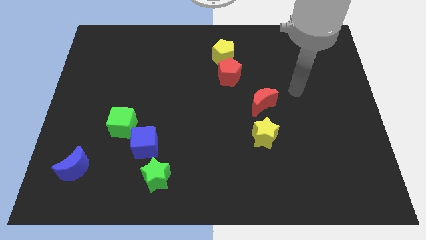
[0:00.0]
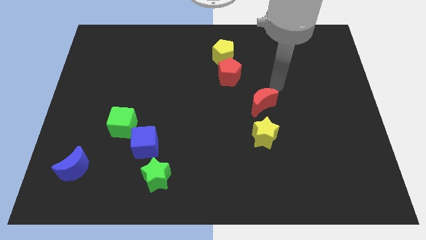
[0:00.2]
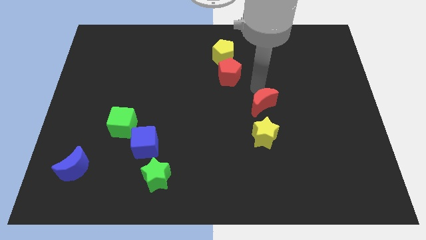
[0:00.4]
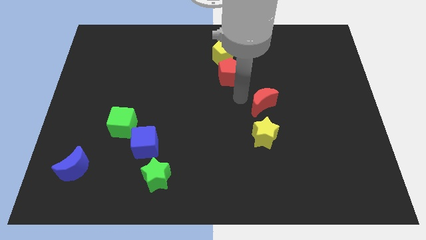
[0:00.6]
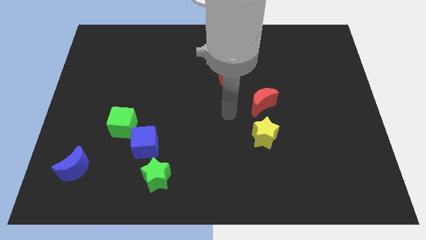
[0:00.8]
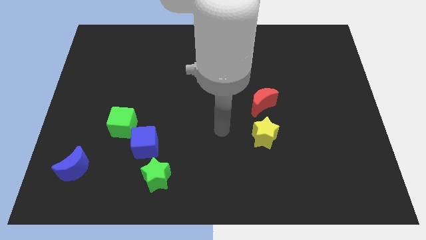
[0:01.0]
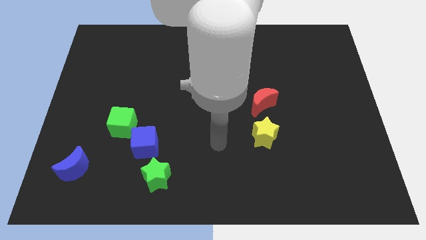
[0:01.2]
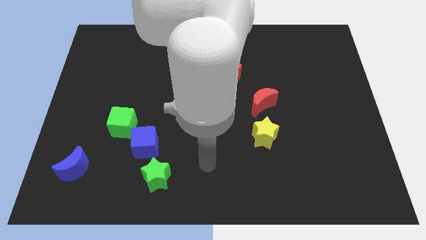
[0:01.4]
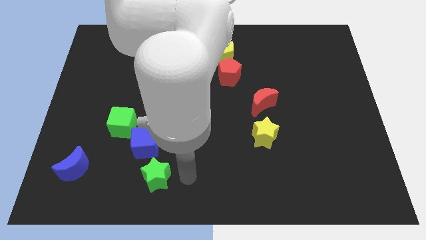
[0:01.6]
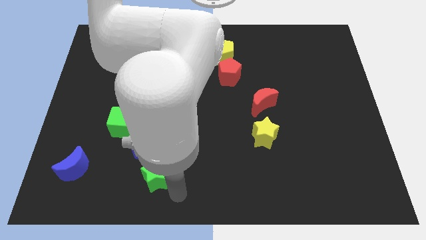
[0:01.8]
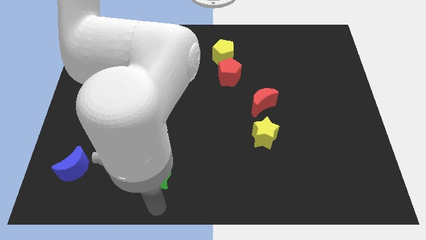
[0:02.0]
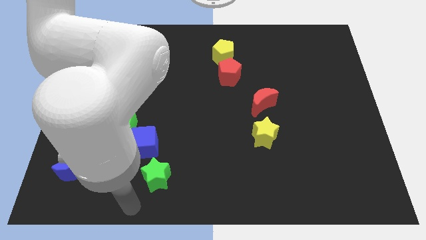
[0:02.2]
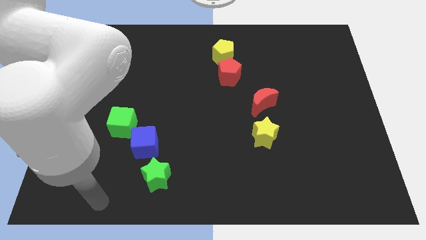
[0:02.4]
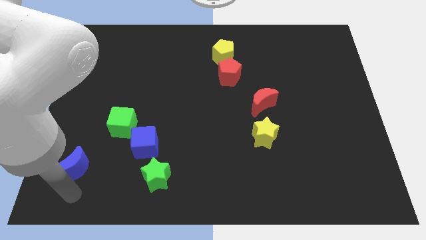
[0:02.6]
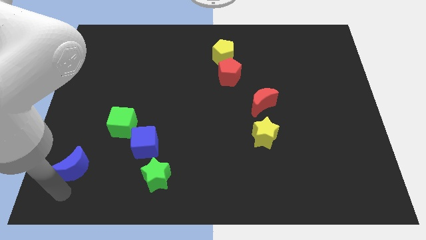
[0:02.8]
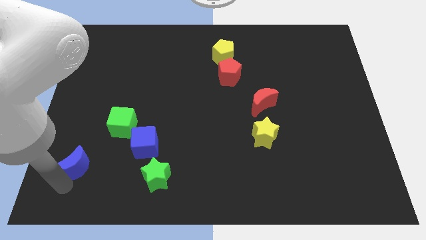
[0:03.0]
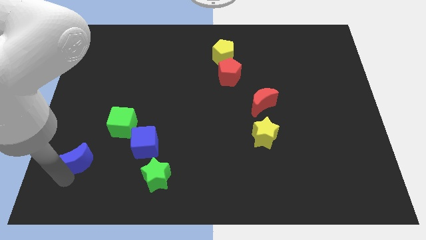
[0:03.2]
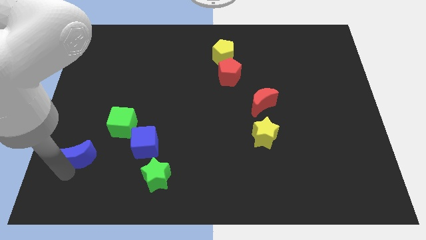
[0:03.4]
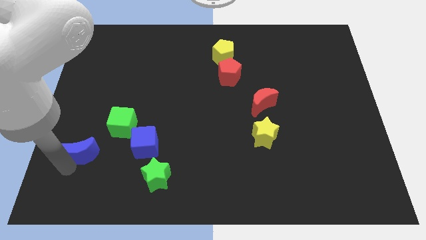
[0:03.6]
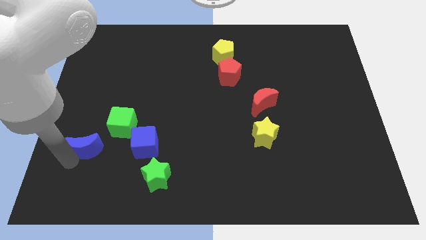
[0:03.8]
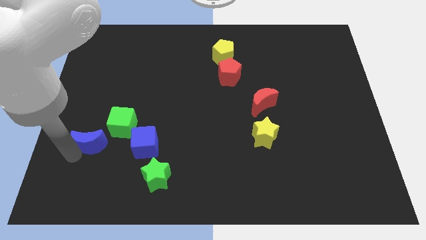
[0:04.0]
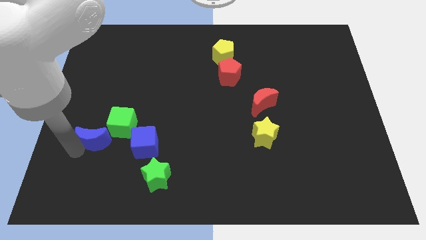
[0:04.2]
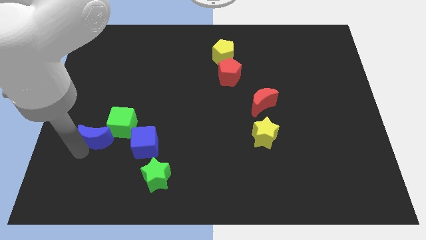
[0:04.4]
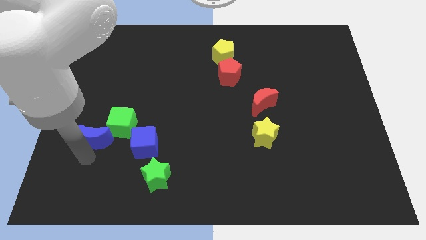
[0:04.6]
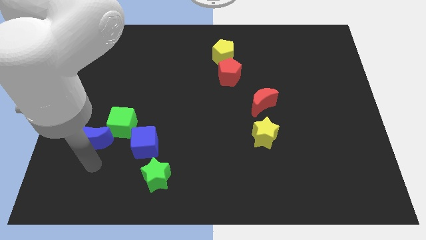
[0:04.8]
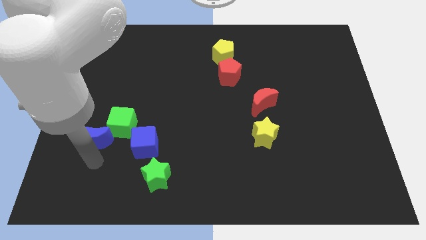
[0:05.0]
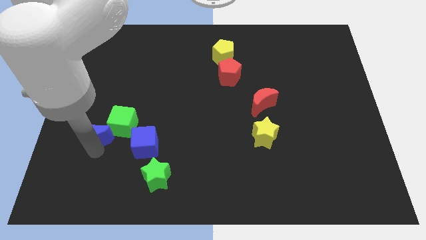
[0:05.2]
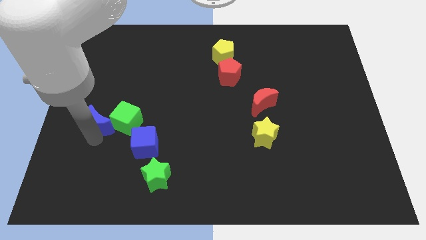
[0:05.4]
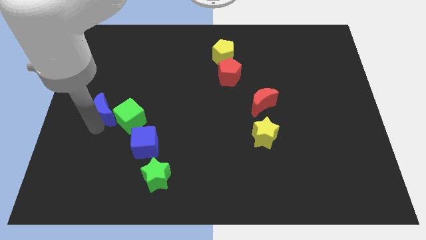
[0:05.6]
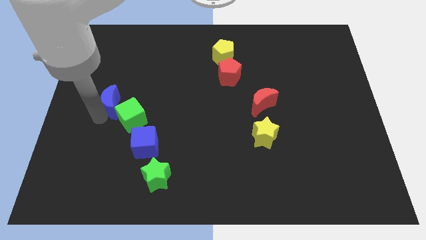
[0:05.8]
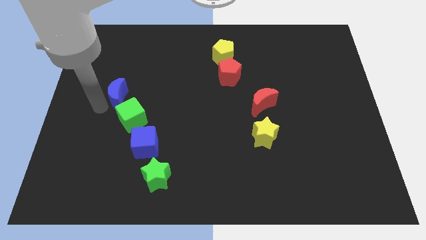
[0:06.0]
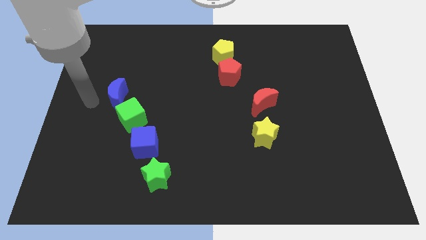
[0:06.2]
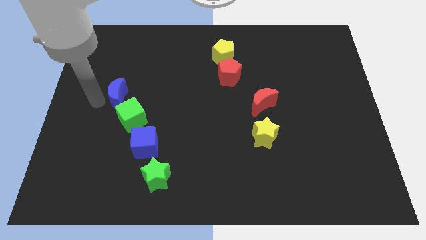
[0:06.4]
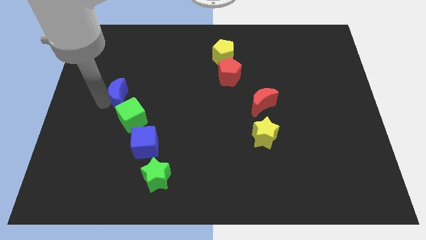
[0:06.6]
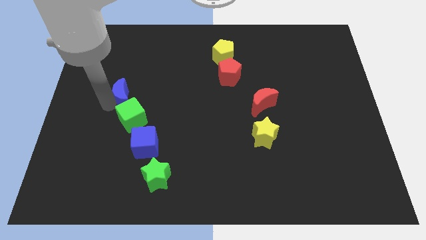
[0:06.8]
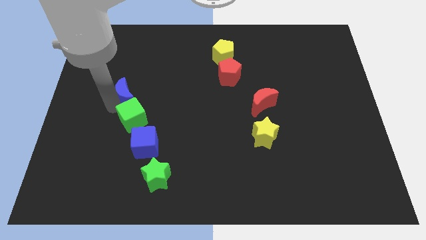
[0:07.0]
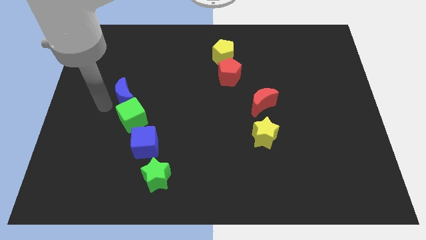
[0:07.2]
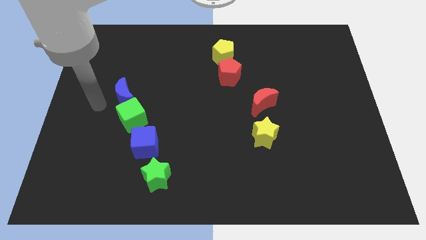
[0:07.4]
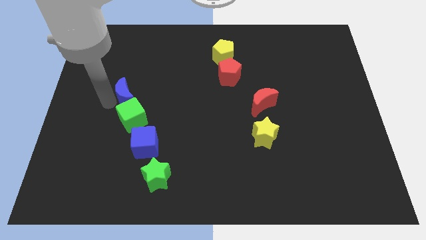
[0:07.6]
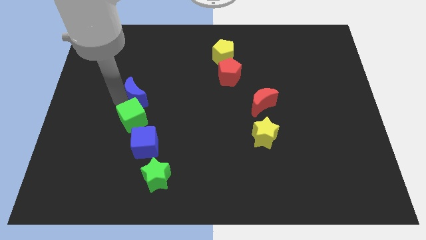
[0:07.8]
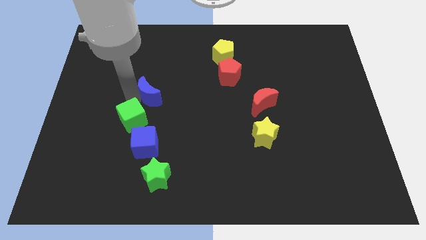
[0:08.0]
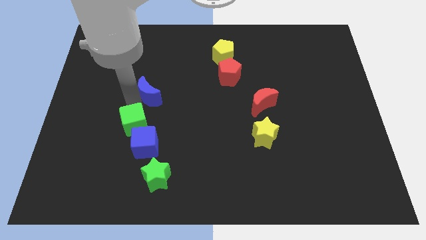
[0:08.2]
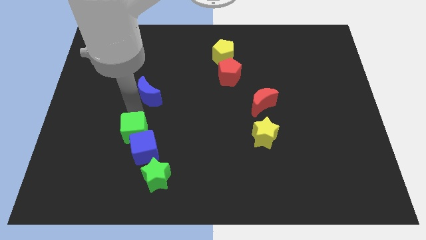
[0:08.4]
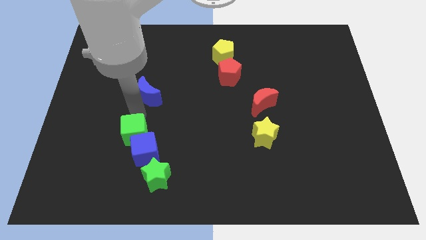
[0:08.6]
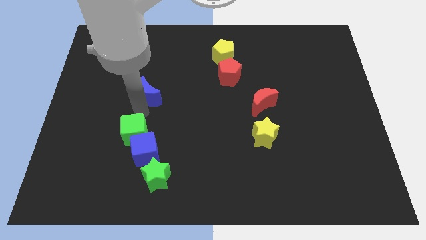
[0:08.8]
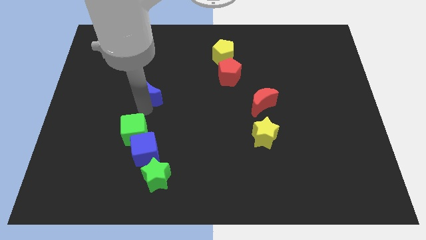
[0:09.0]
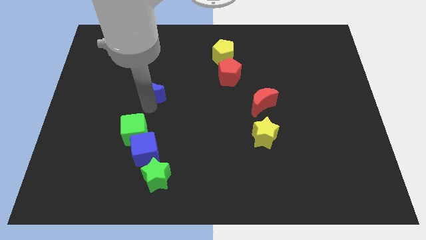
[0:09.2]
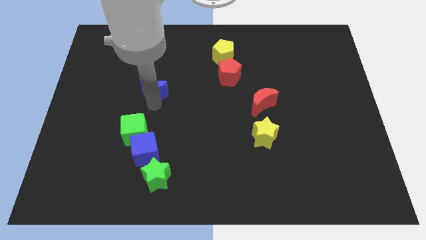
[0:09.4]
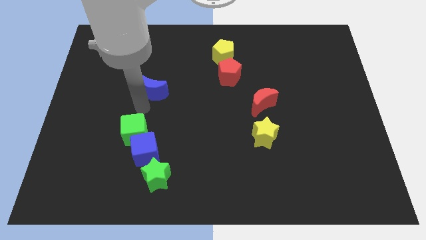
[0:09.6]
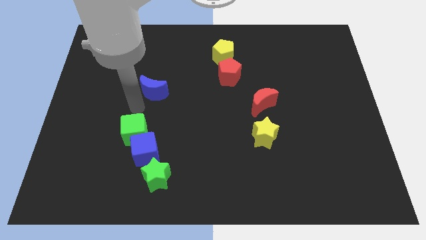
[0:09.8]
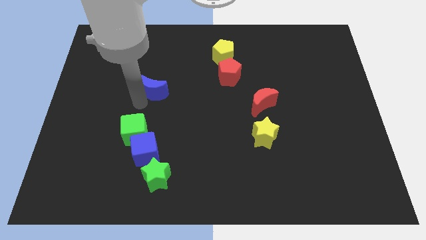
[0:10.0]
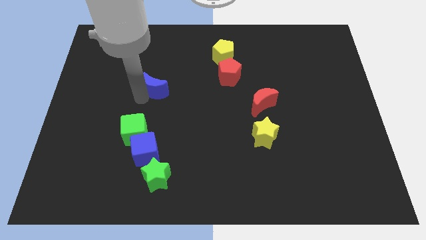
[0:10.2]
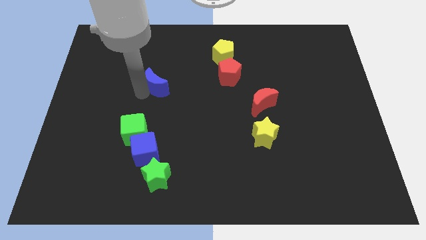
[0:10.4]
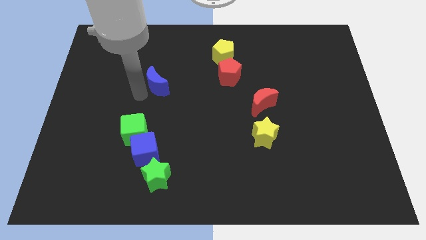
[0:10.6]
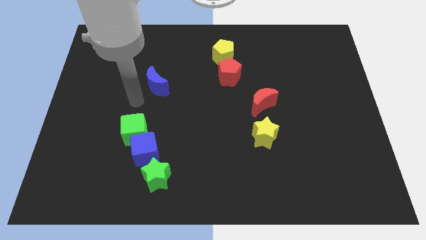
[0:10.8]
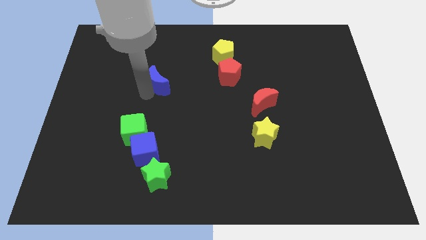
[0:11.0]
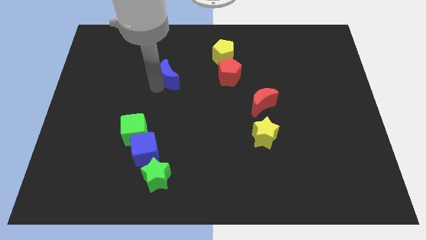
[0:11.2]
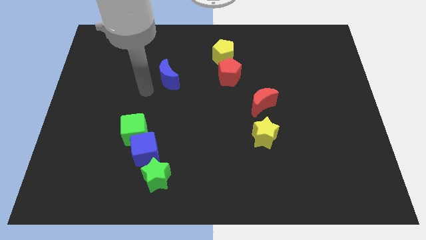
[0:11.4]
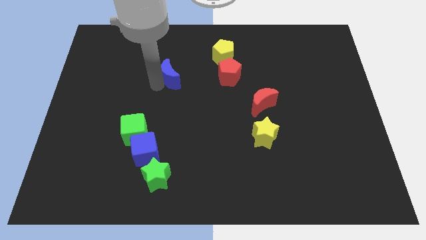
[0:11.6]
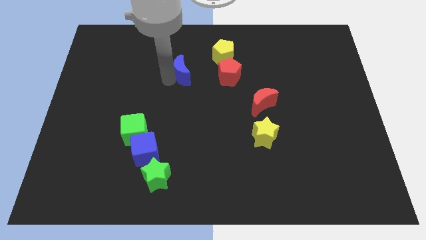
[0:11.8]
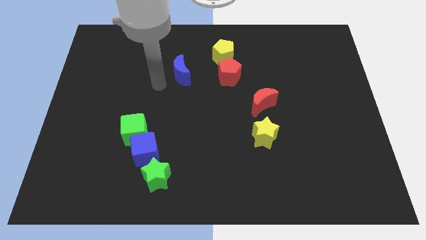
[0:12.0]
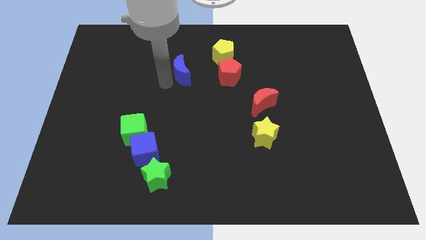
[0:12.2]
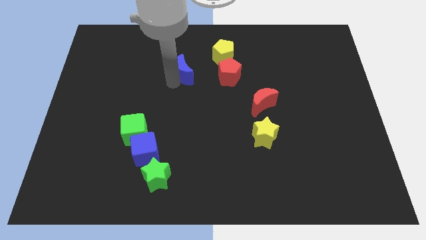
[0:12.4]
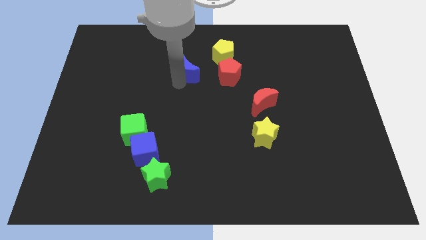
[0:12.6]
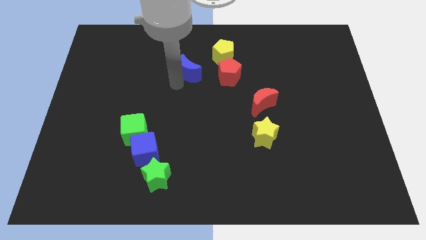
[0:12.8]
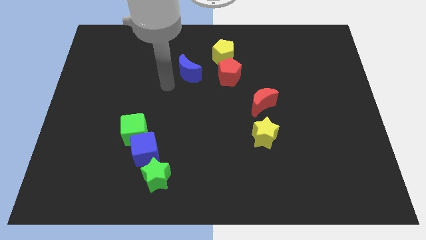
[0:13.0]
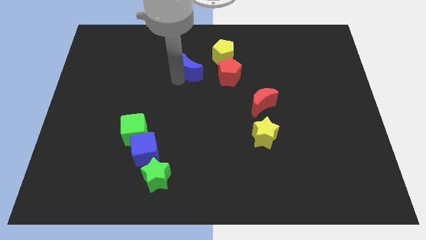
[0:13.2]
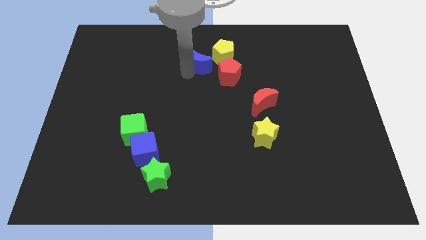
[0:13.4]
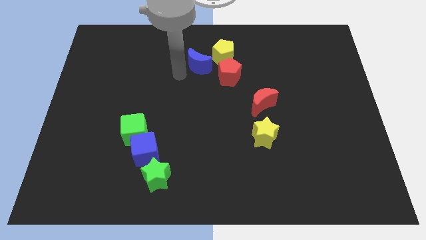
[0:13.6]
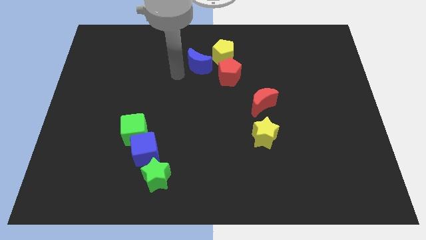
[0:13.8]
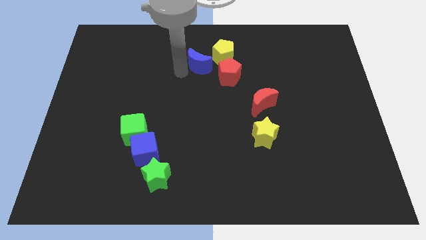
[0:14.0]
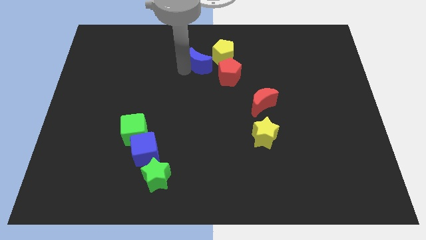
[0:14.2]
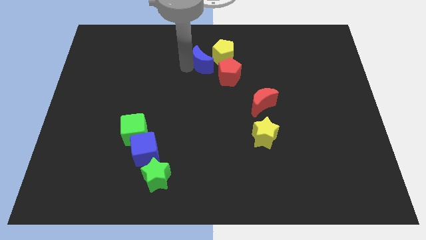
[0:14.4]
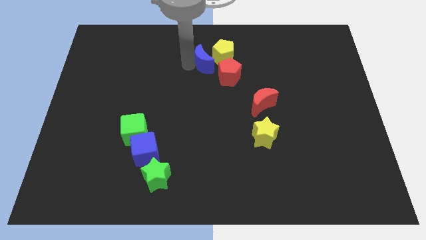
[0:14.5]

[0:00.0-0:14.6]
move the blue moon next to the yellow pentagon

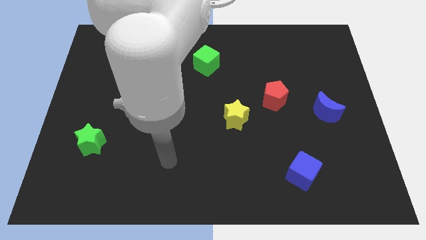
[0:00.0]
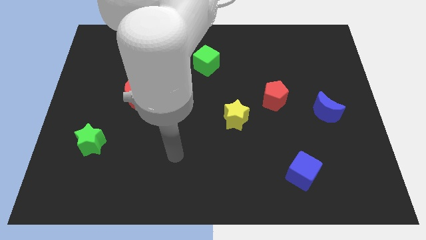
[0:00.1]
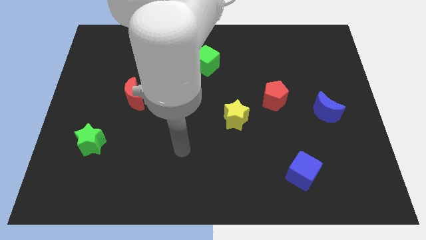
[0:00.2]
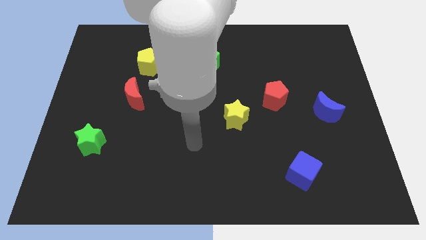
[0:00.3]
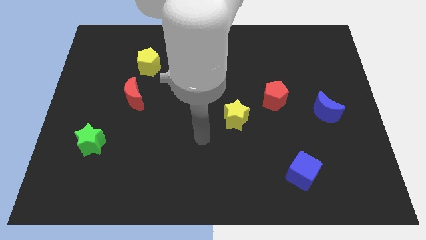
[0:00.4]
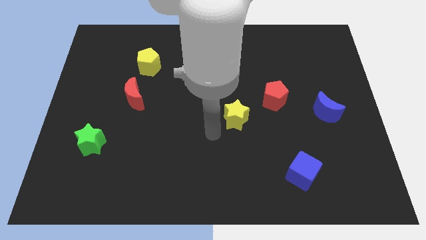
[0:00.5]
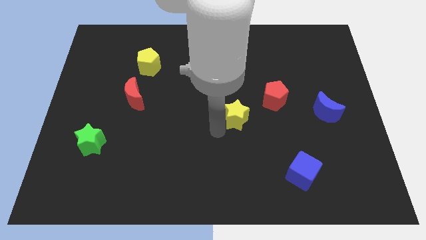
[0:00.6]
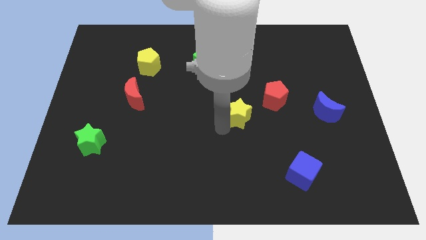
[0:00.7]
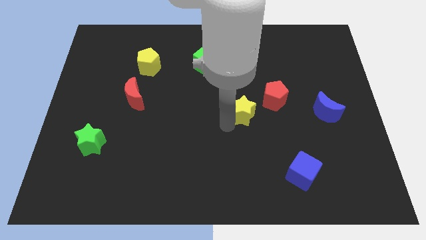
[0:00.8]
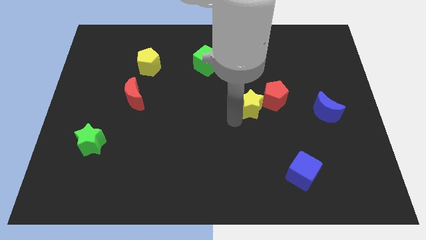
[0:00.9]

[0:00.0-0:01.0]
push the yellow star next to the red pentagon
